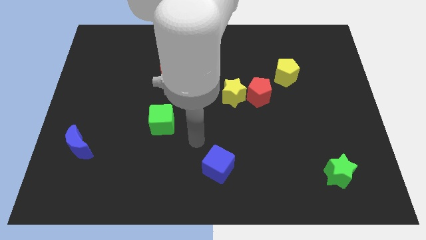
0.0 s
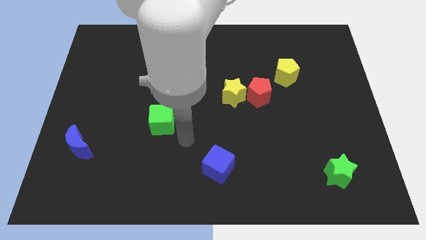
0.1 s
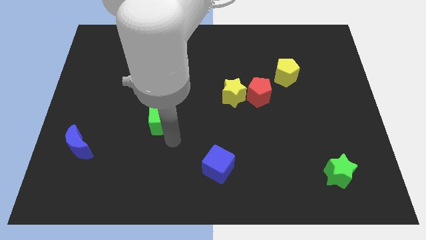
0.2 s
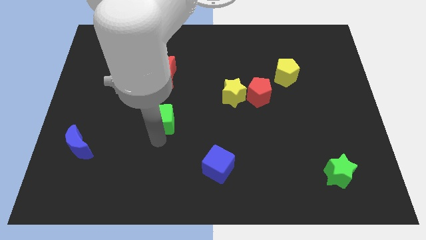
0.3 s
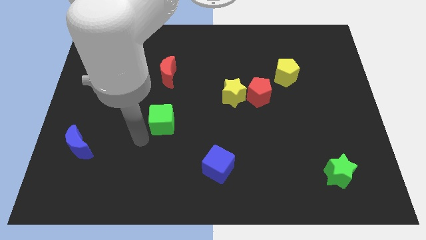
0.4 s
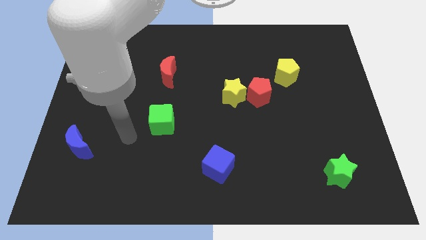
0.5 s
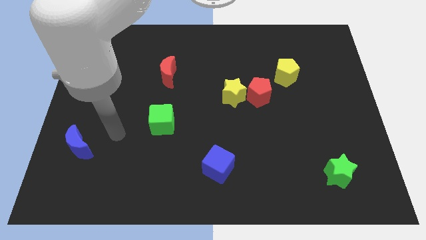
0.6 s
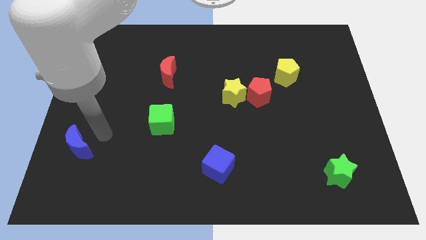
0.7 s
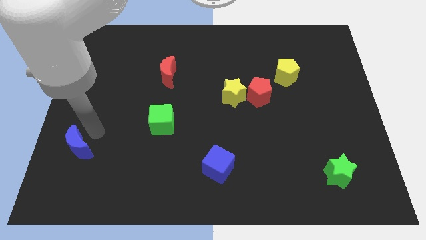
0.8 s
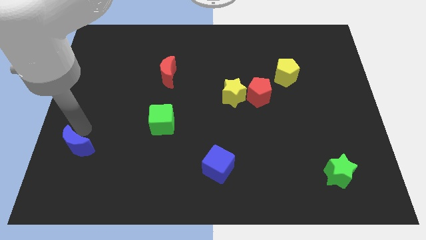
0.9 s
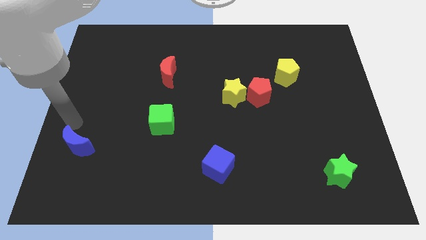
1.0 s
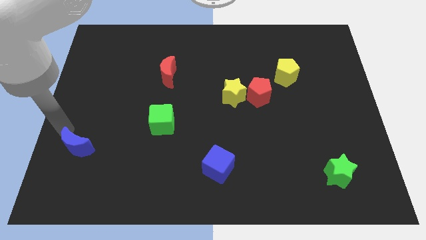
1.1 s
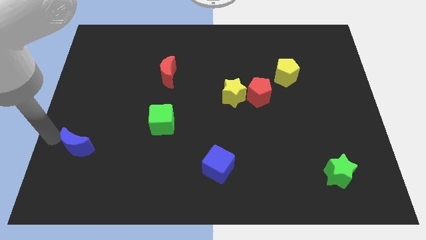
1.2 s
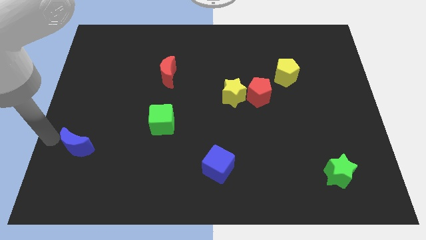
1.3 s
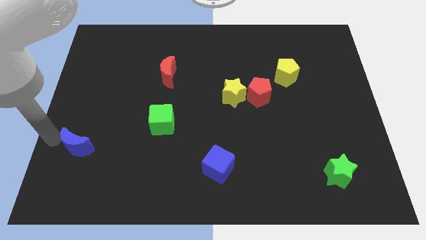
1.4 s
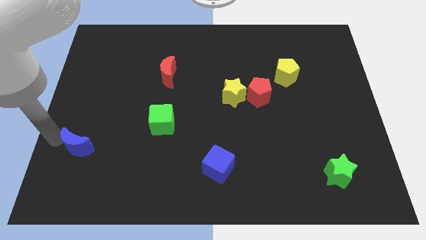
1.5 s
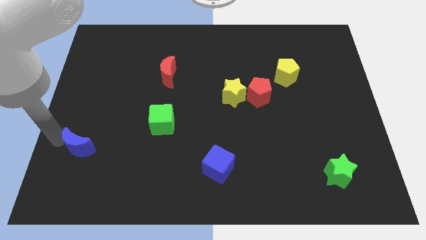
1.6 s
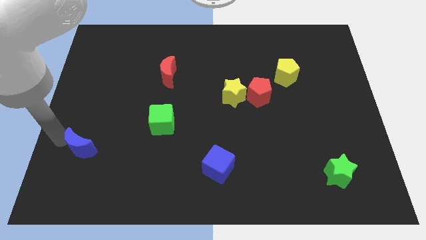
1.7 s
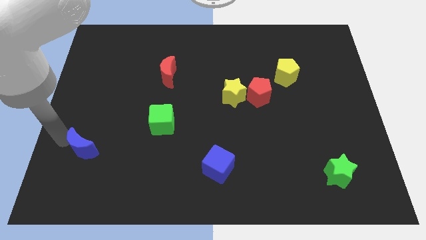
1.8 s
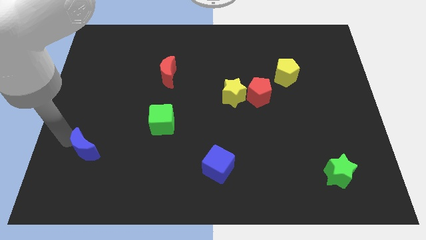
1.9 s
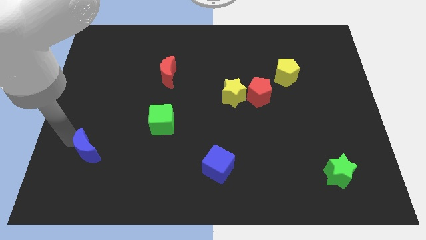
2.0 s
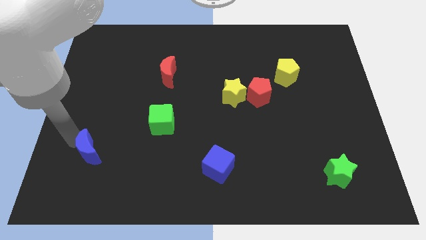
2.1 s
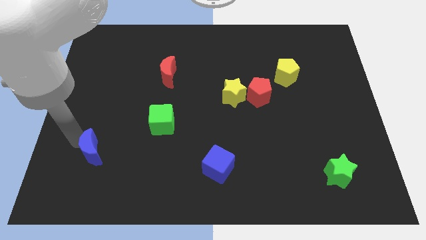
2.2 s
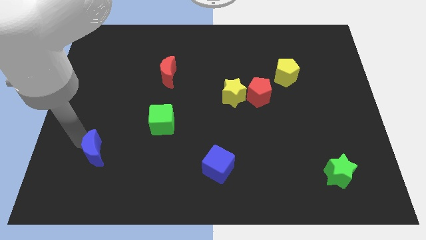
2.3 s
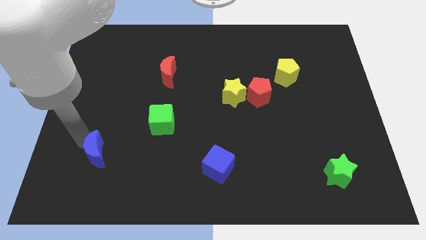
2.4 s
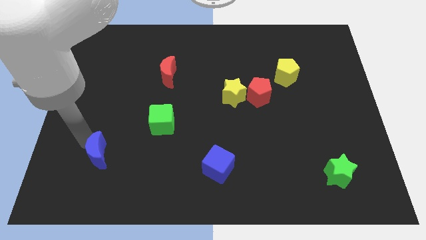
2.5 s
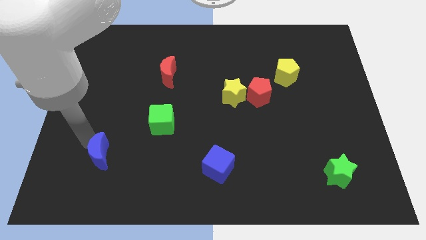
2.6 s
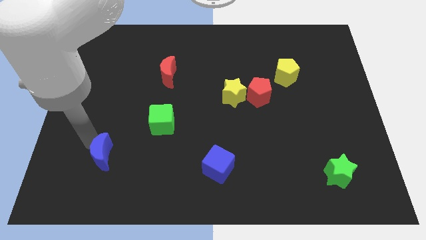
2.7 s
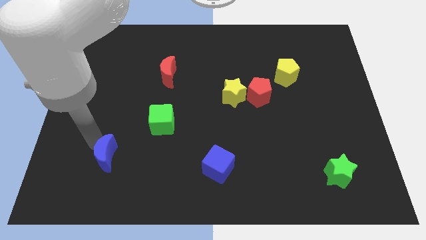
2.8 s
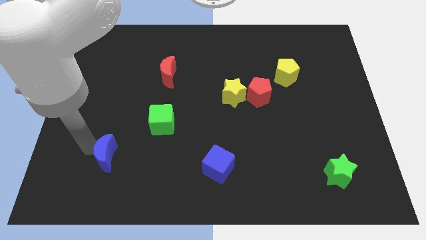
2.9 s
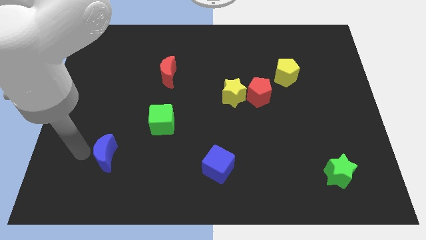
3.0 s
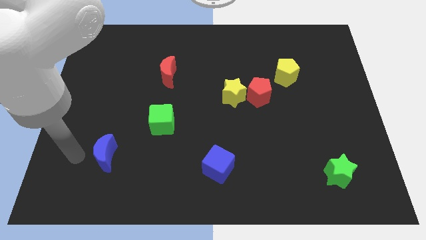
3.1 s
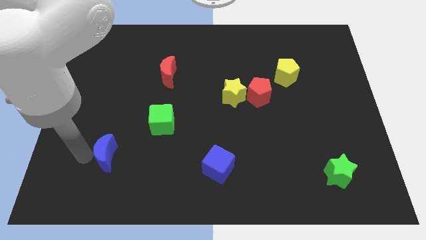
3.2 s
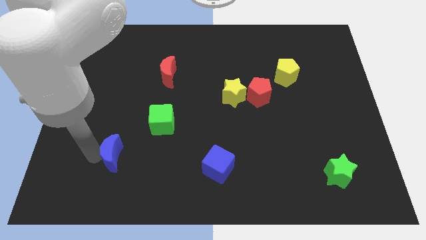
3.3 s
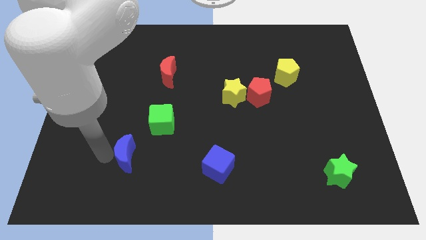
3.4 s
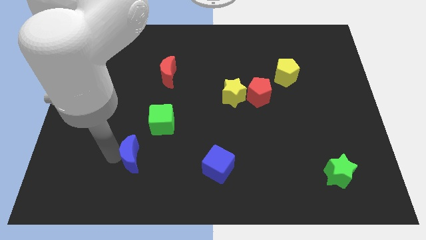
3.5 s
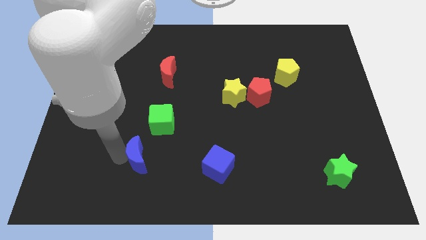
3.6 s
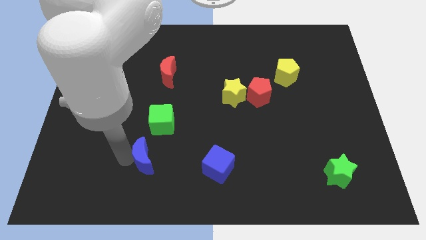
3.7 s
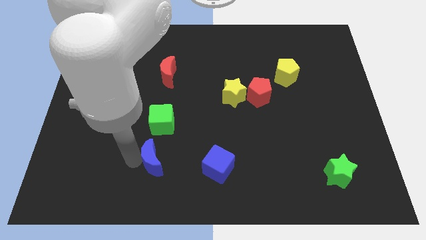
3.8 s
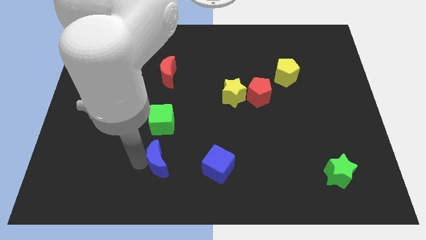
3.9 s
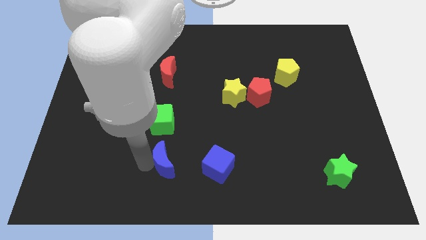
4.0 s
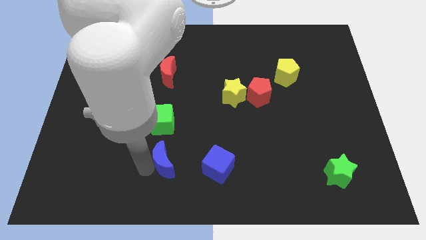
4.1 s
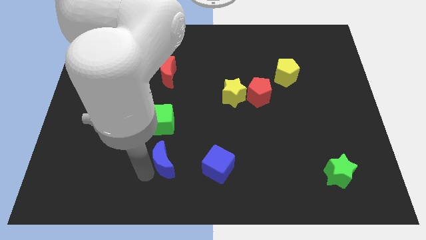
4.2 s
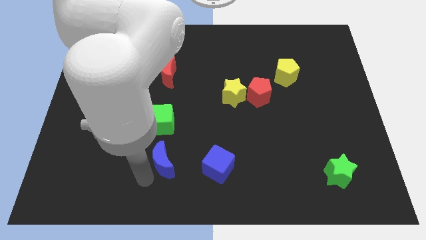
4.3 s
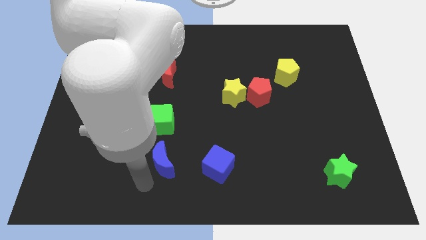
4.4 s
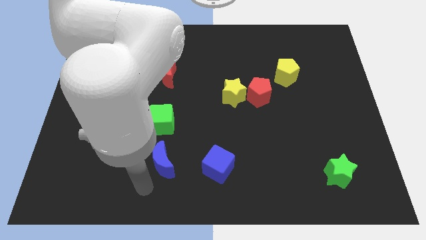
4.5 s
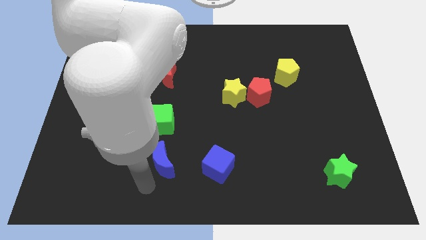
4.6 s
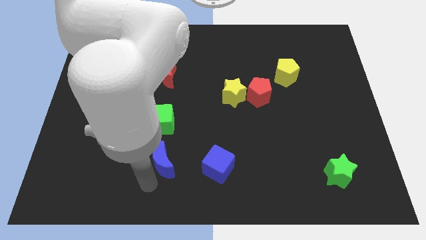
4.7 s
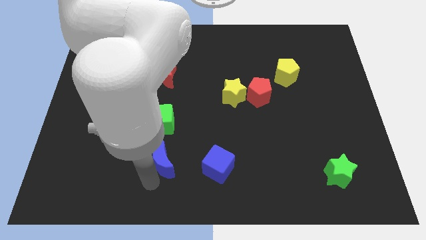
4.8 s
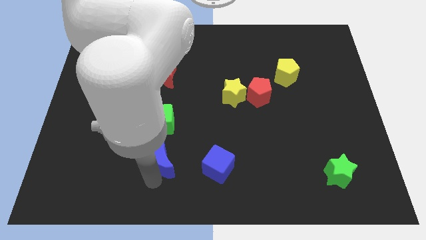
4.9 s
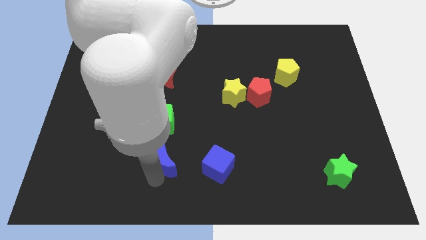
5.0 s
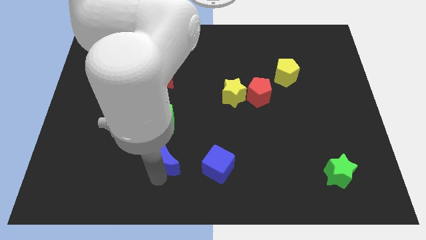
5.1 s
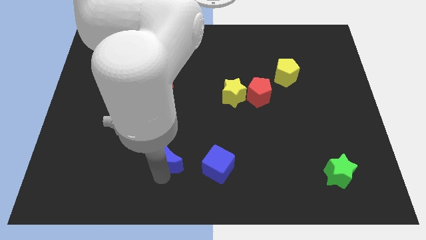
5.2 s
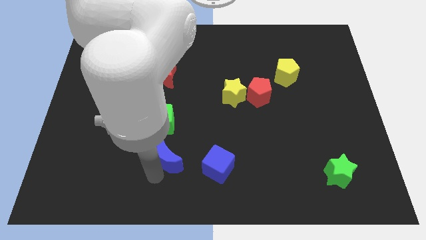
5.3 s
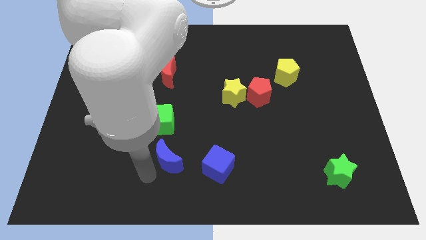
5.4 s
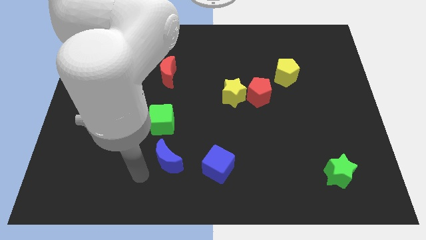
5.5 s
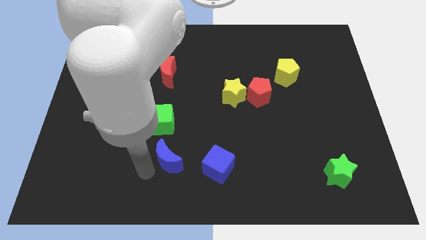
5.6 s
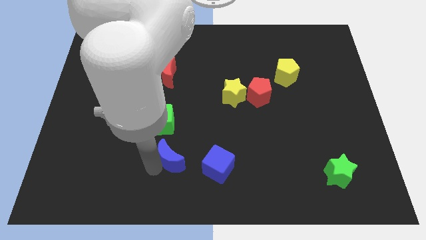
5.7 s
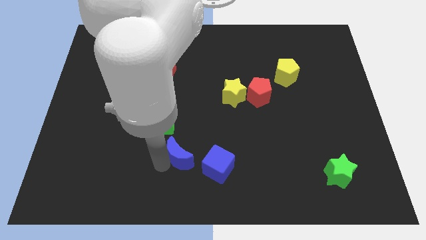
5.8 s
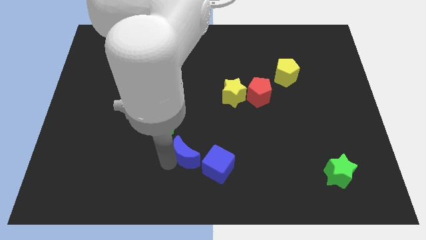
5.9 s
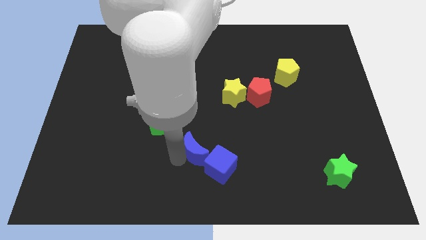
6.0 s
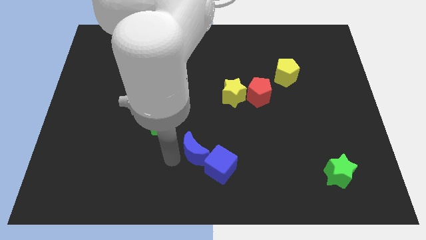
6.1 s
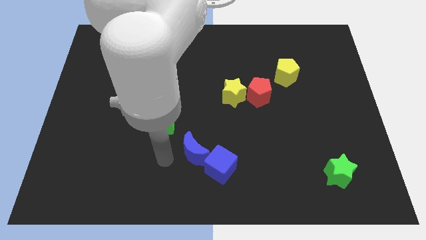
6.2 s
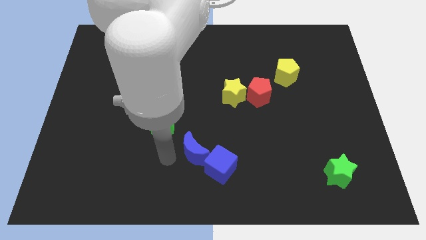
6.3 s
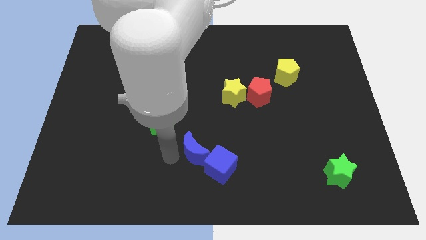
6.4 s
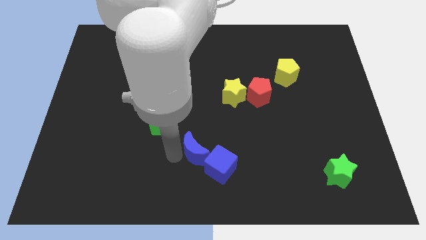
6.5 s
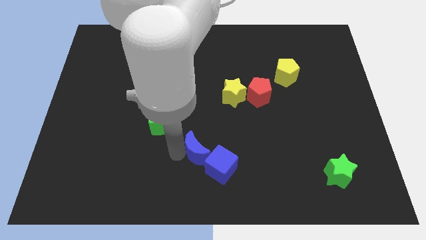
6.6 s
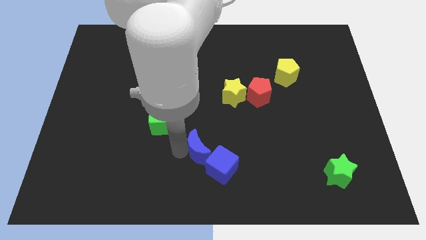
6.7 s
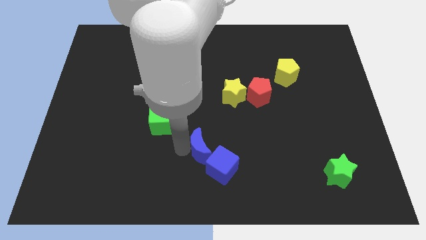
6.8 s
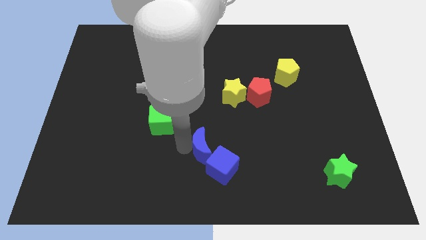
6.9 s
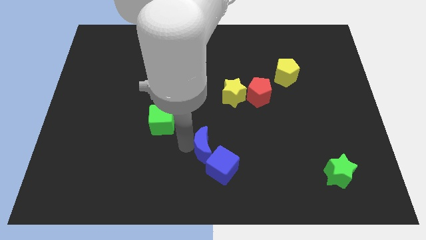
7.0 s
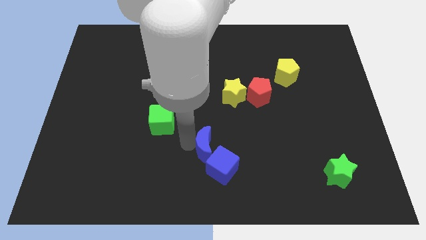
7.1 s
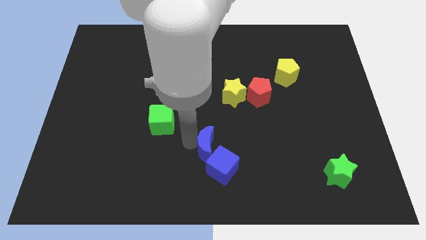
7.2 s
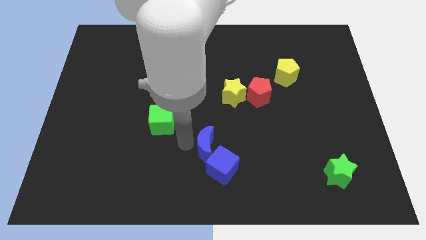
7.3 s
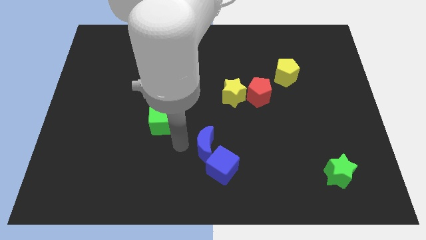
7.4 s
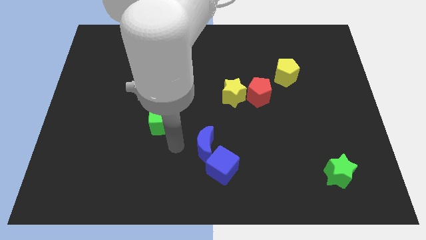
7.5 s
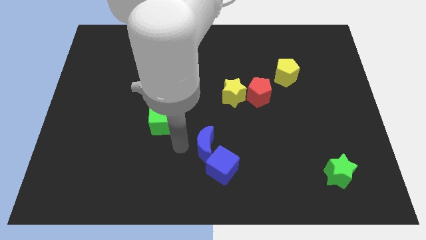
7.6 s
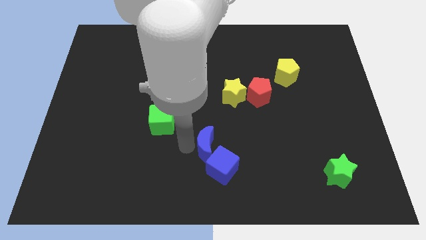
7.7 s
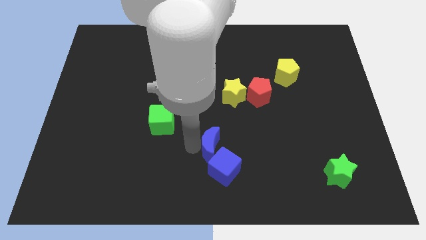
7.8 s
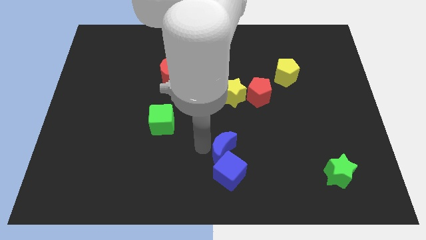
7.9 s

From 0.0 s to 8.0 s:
put the blue moon to the top right of the blue cube
